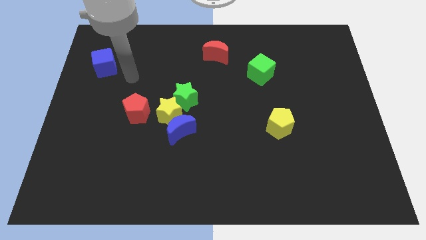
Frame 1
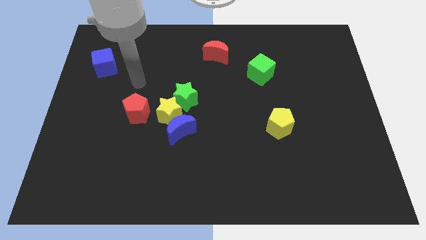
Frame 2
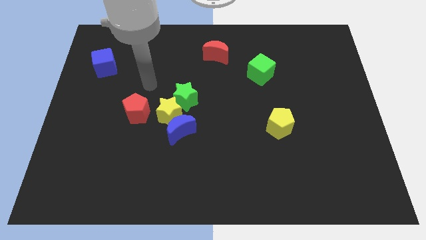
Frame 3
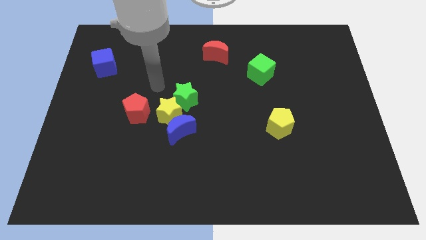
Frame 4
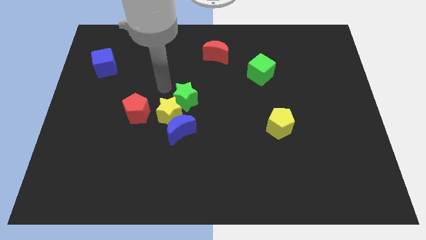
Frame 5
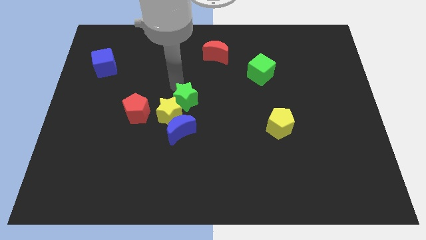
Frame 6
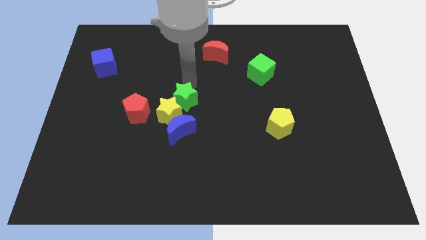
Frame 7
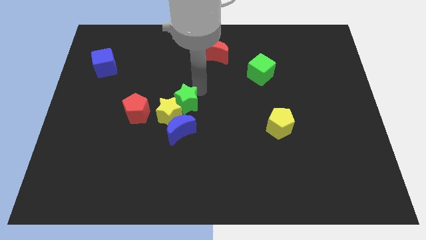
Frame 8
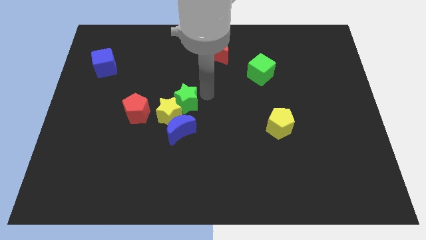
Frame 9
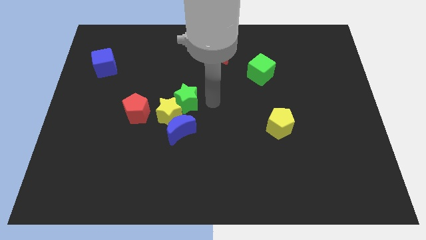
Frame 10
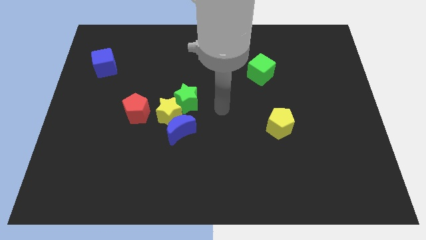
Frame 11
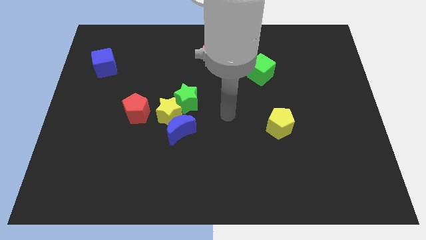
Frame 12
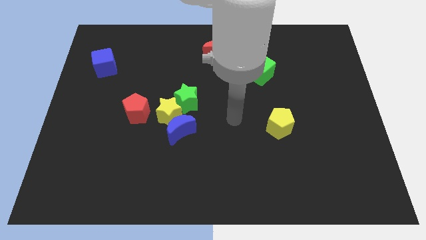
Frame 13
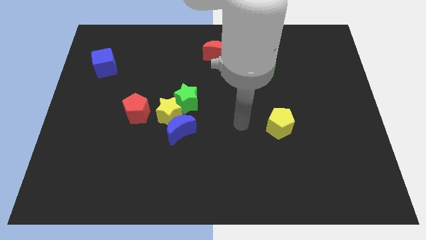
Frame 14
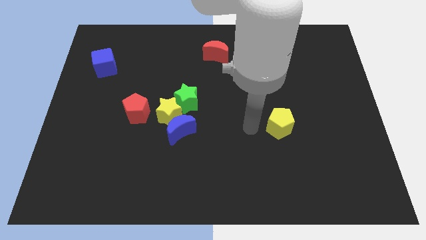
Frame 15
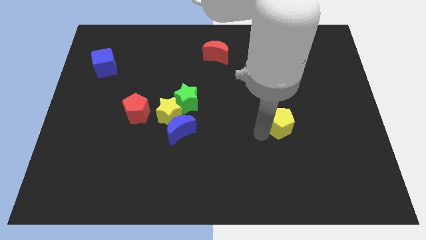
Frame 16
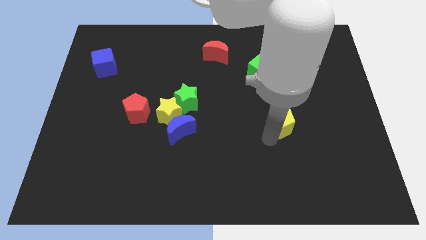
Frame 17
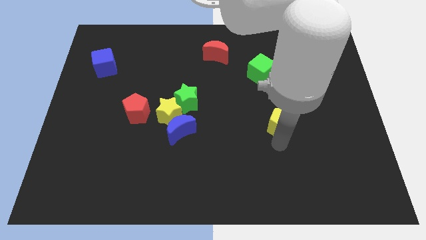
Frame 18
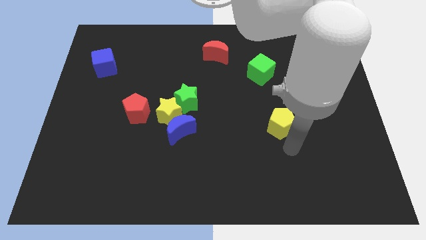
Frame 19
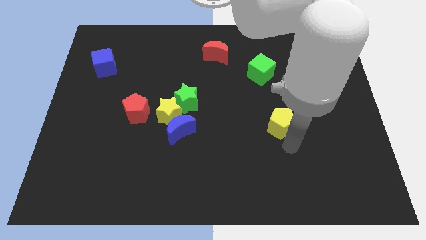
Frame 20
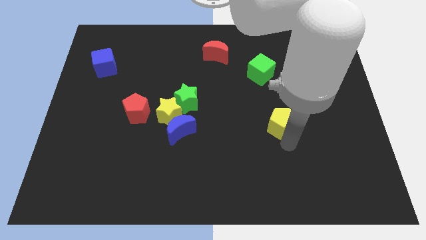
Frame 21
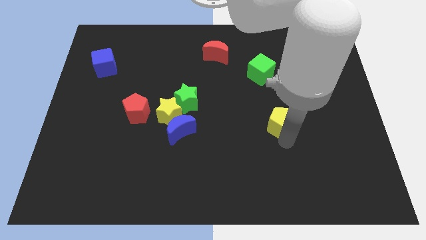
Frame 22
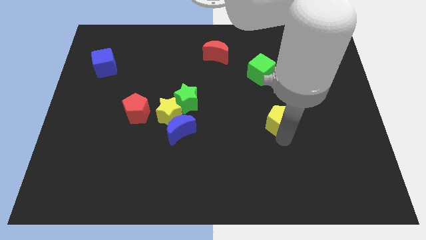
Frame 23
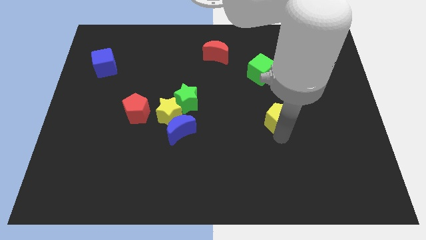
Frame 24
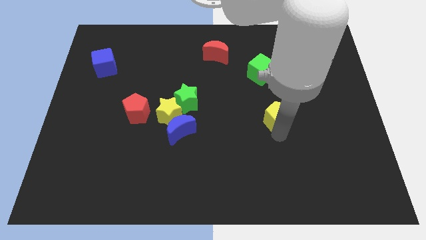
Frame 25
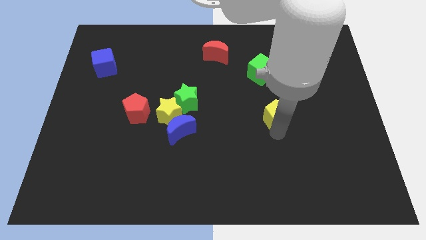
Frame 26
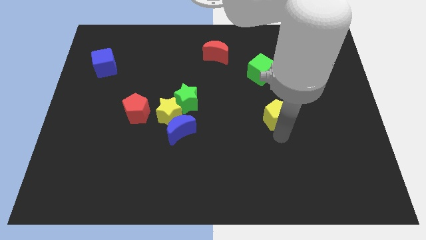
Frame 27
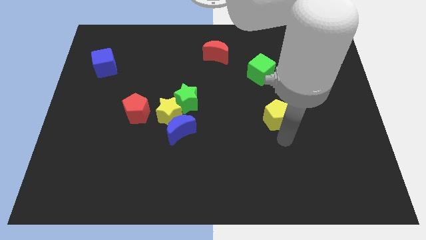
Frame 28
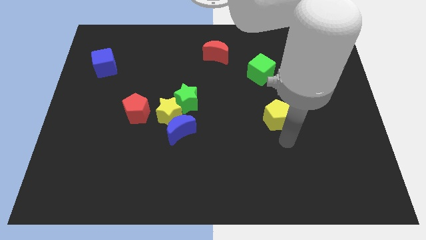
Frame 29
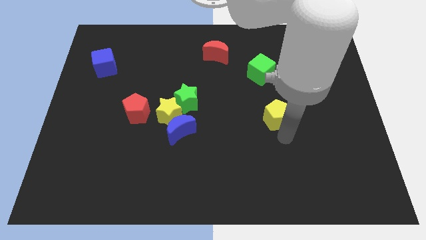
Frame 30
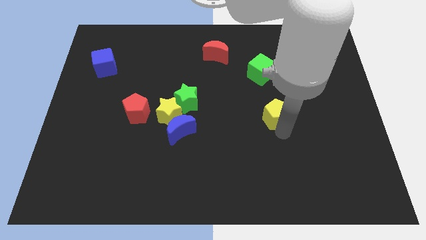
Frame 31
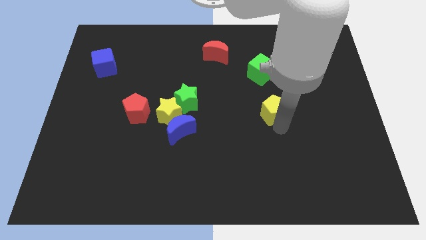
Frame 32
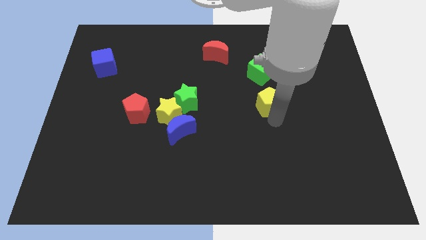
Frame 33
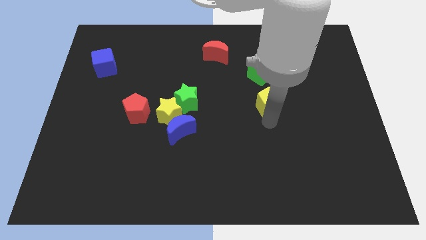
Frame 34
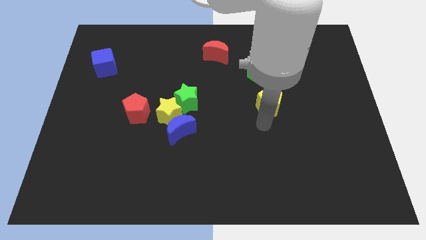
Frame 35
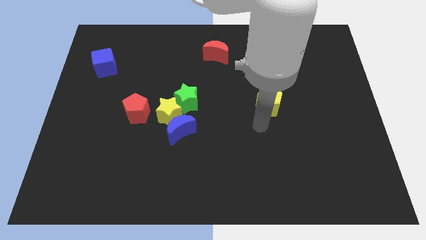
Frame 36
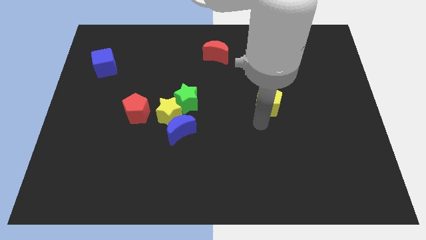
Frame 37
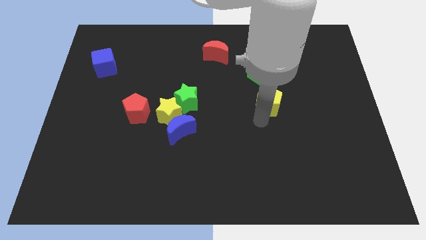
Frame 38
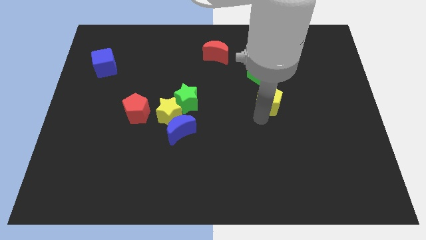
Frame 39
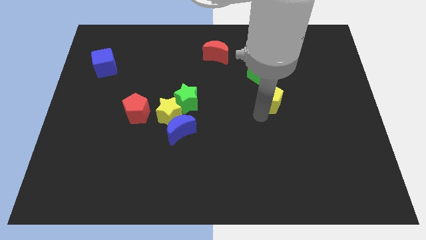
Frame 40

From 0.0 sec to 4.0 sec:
slightly push the yellow pentagon upwards

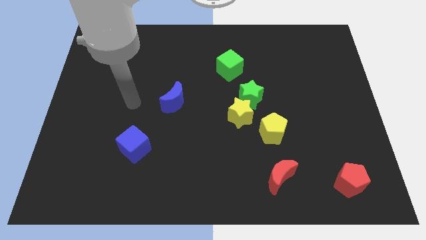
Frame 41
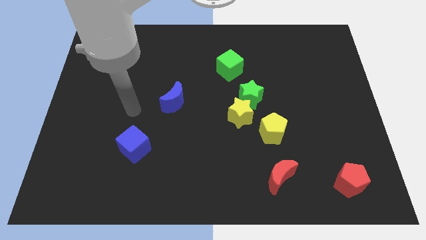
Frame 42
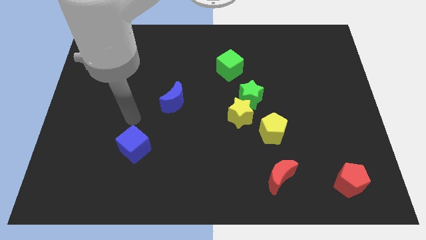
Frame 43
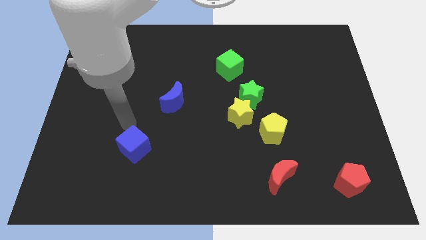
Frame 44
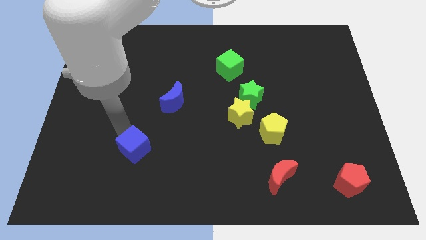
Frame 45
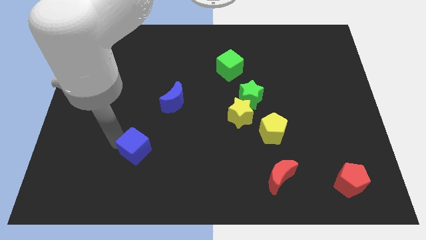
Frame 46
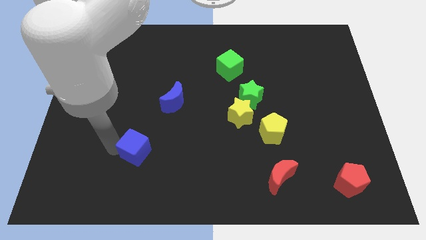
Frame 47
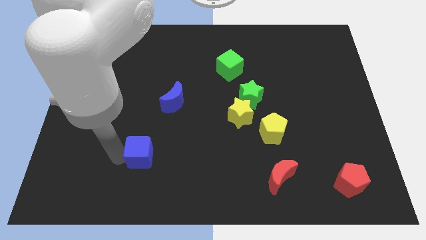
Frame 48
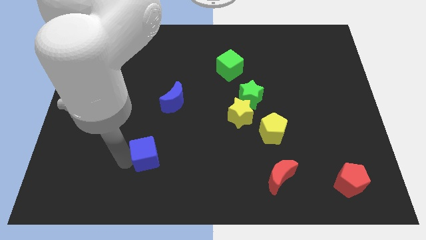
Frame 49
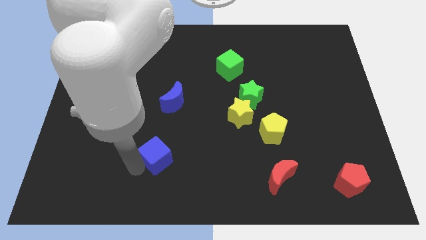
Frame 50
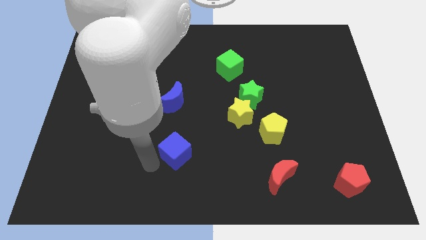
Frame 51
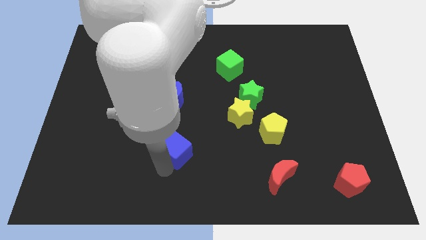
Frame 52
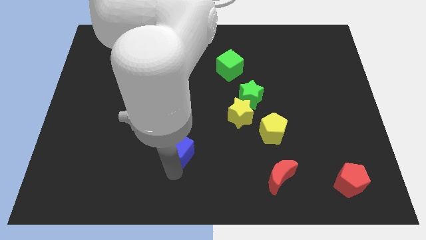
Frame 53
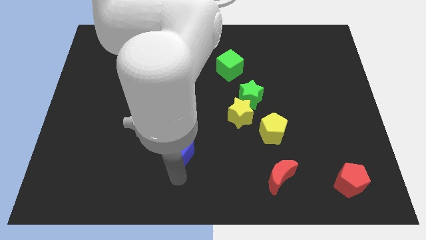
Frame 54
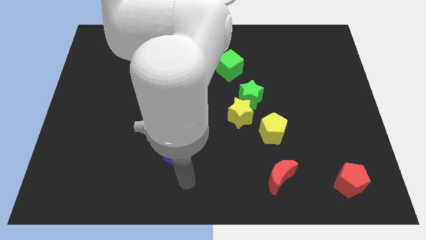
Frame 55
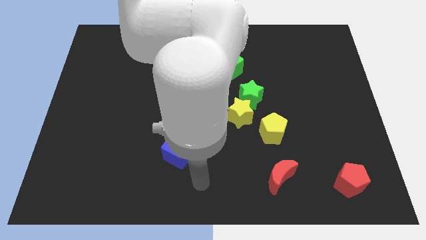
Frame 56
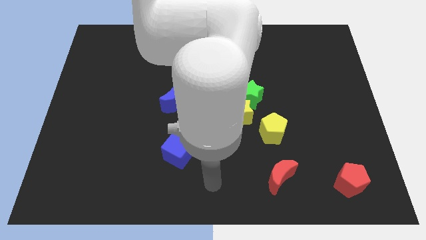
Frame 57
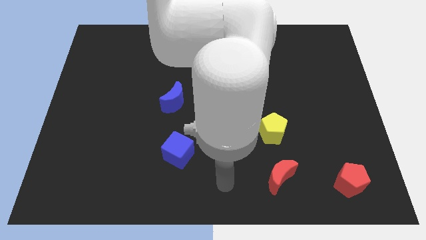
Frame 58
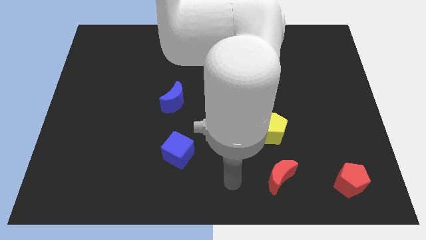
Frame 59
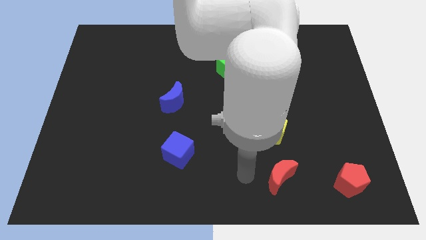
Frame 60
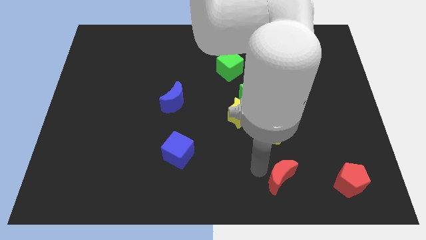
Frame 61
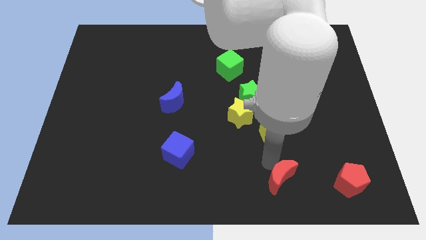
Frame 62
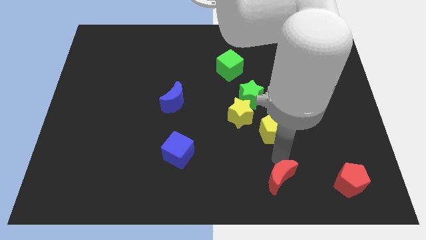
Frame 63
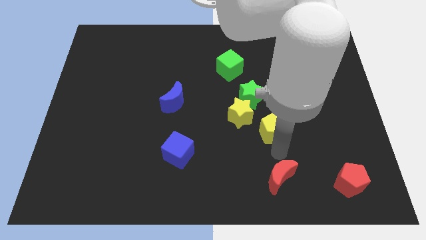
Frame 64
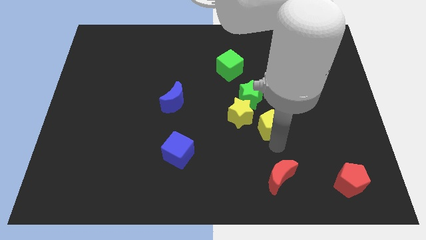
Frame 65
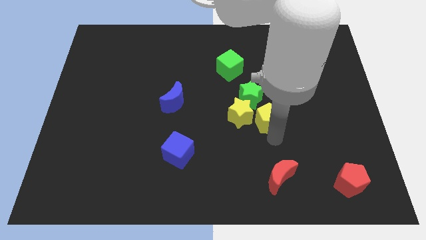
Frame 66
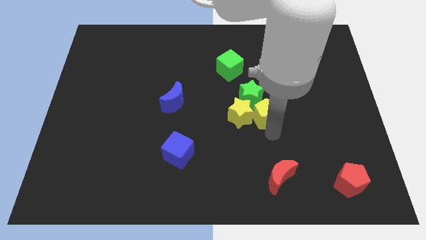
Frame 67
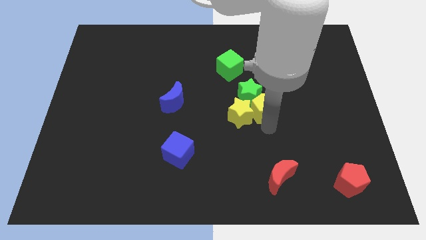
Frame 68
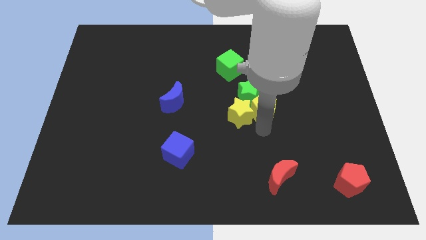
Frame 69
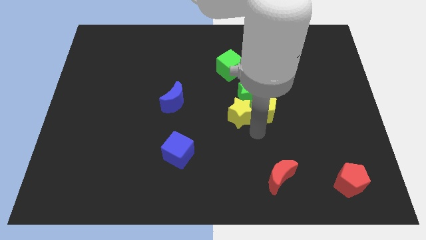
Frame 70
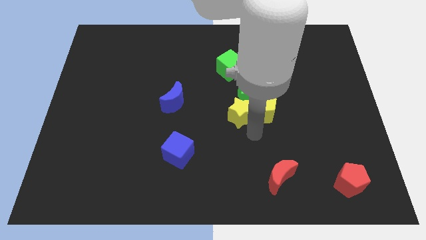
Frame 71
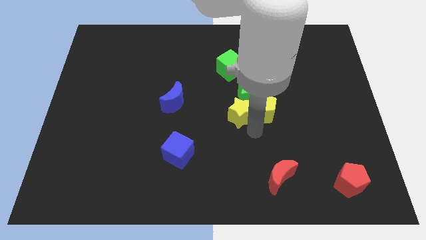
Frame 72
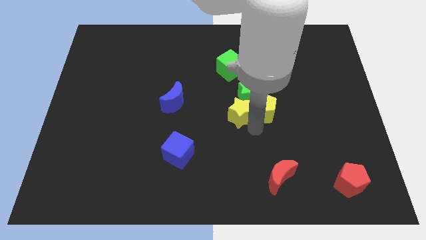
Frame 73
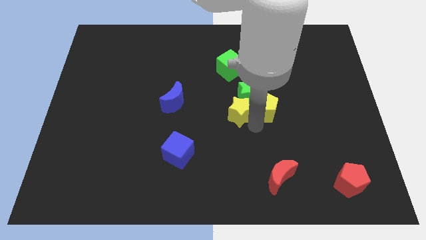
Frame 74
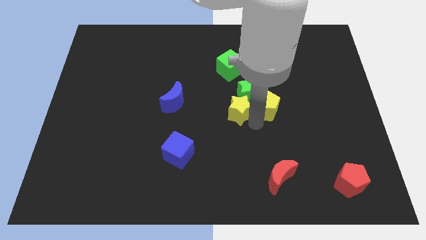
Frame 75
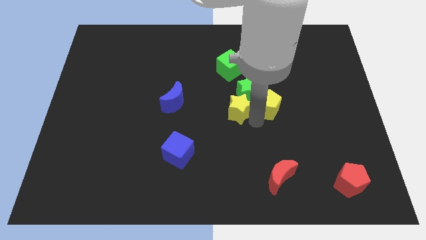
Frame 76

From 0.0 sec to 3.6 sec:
slightly move the yellow pentagon upwards

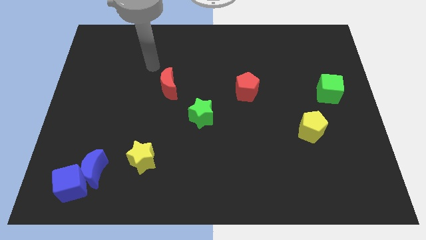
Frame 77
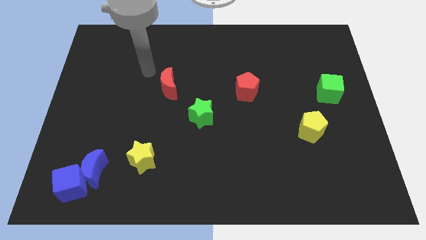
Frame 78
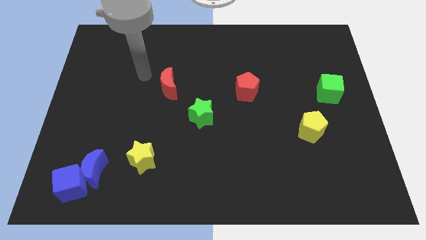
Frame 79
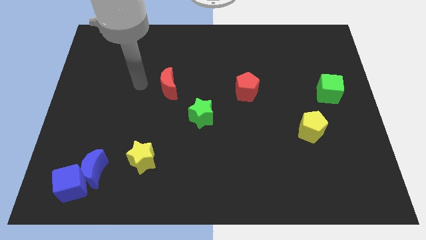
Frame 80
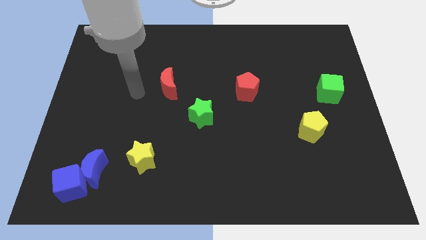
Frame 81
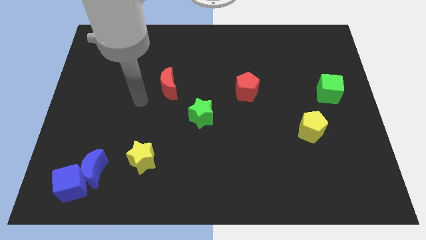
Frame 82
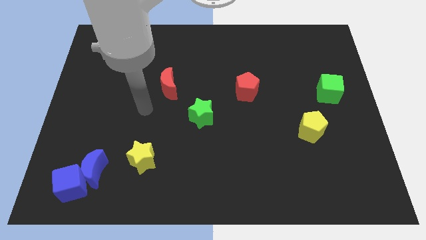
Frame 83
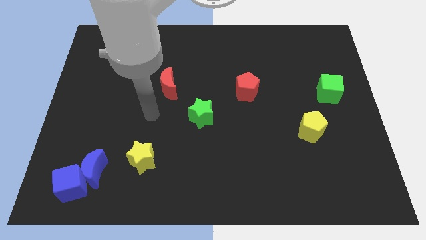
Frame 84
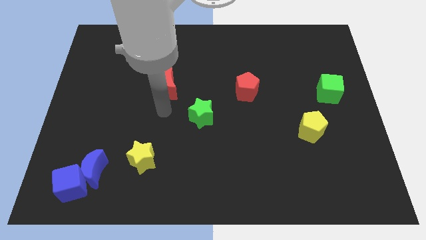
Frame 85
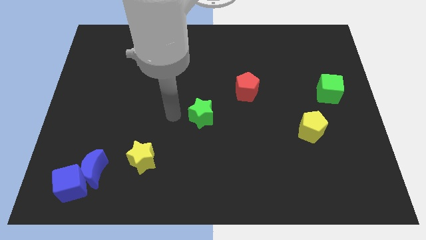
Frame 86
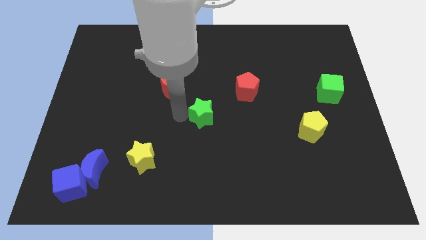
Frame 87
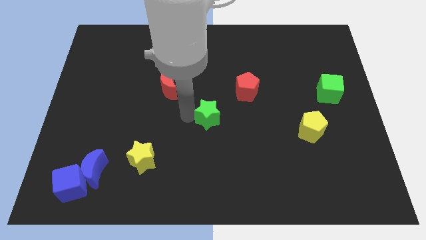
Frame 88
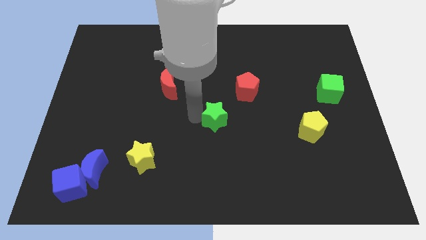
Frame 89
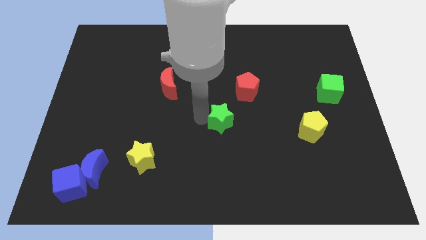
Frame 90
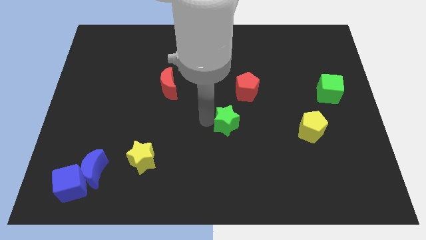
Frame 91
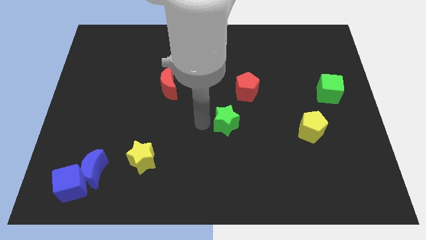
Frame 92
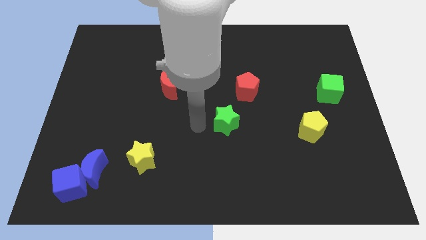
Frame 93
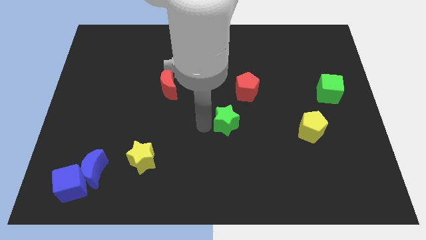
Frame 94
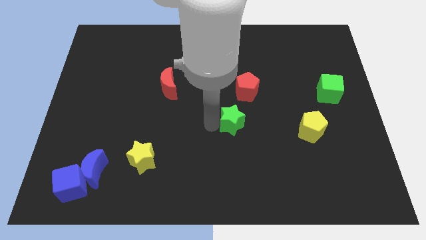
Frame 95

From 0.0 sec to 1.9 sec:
push the green star a little bit to the right
